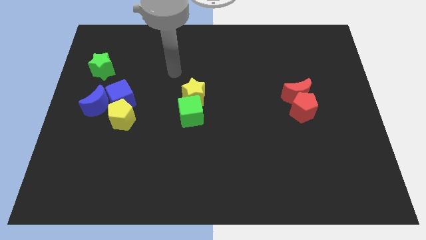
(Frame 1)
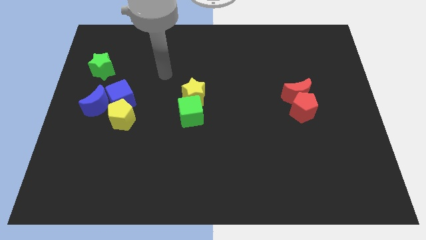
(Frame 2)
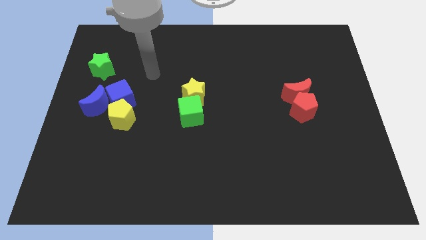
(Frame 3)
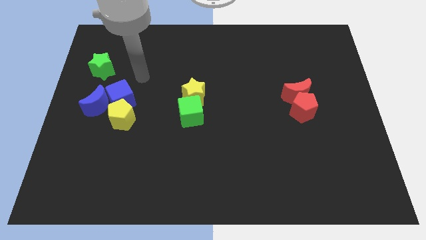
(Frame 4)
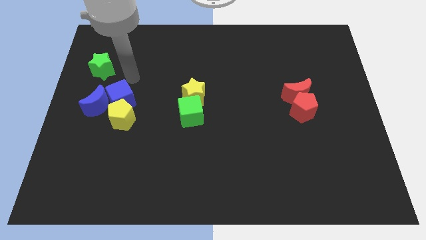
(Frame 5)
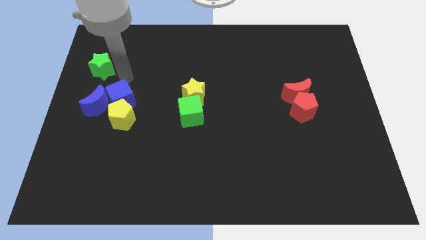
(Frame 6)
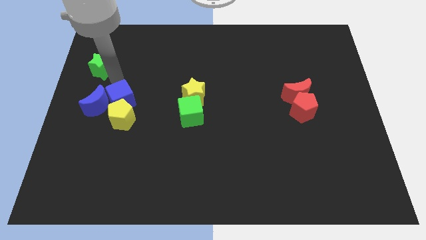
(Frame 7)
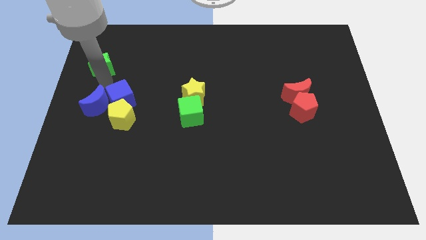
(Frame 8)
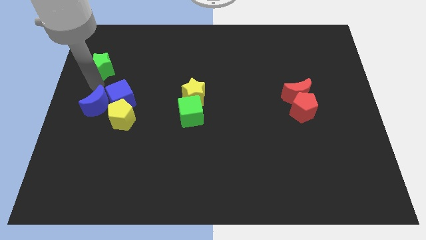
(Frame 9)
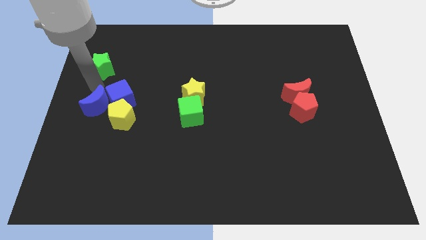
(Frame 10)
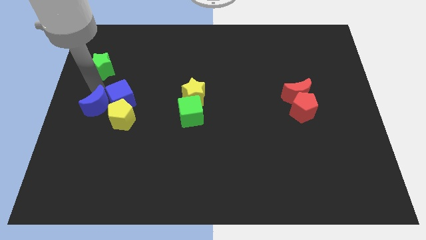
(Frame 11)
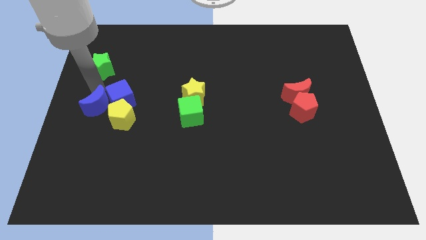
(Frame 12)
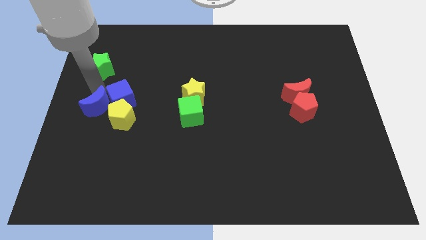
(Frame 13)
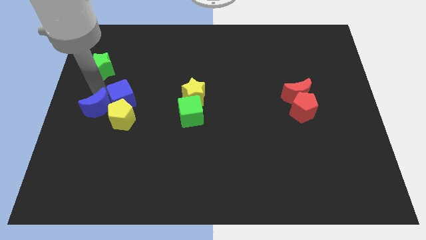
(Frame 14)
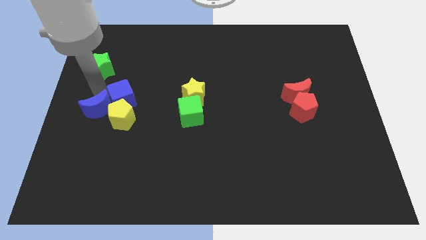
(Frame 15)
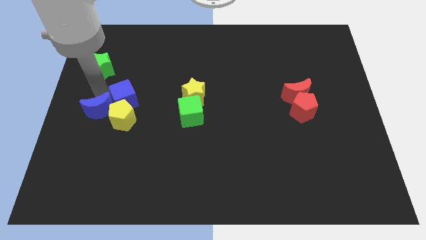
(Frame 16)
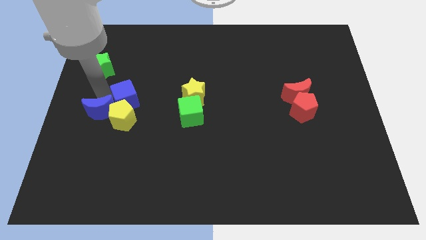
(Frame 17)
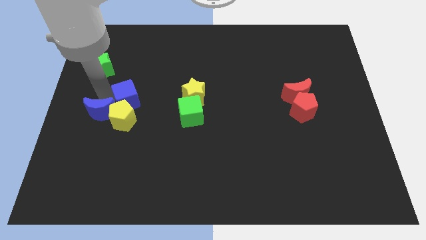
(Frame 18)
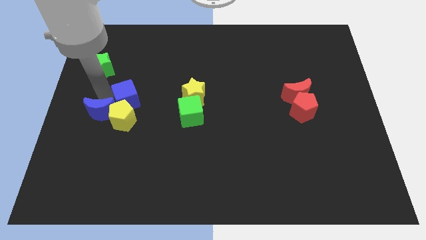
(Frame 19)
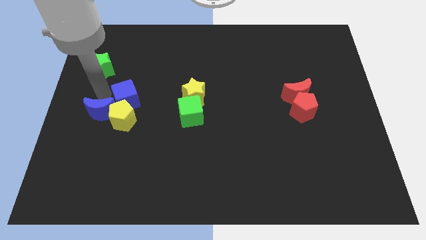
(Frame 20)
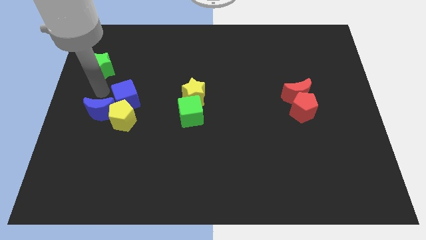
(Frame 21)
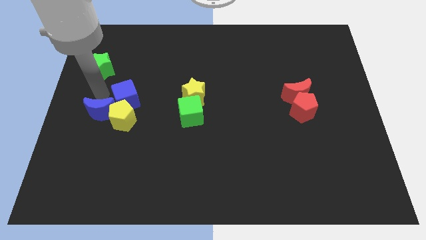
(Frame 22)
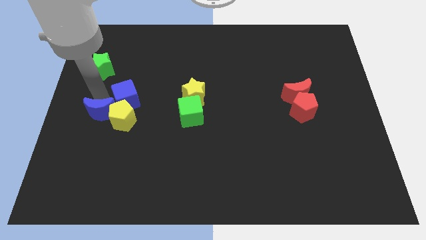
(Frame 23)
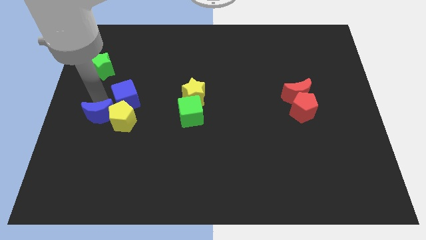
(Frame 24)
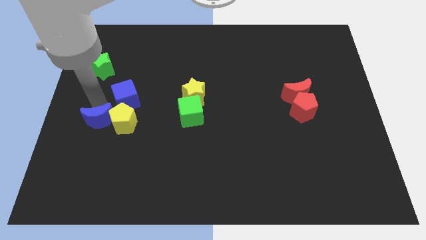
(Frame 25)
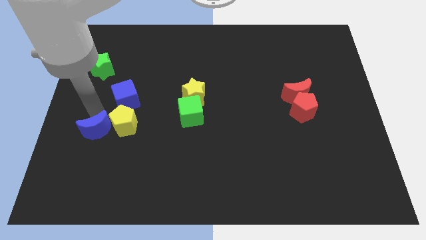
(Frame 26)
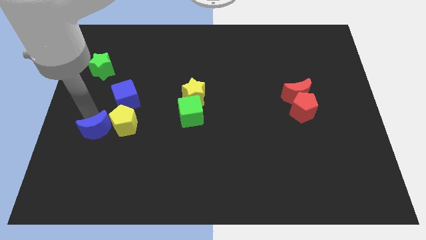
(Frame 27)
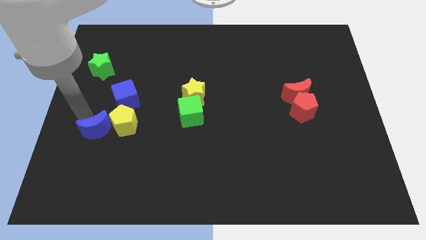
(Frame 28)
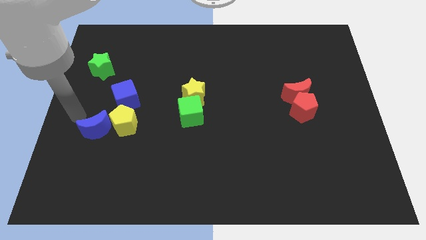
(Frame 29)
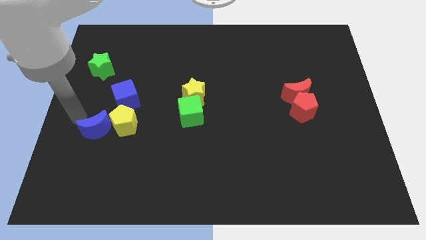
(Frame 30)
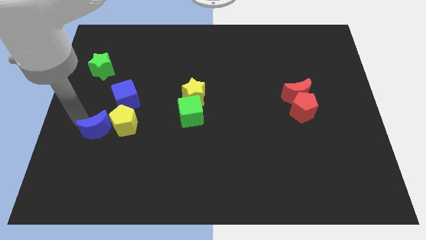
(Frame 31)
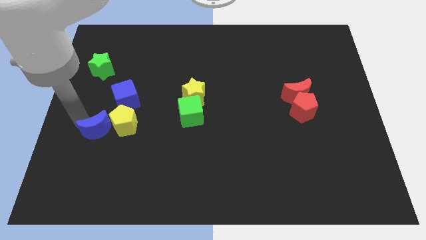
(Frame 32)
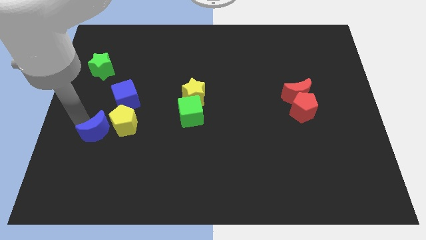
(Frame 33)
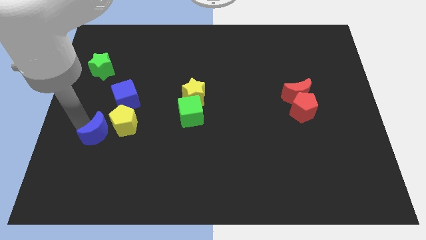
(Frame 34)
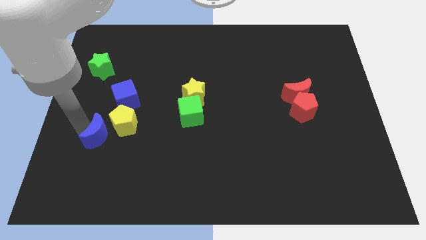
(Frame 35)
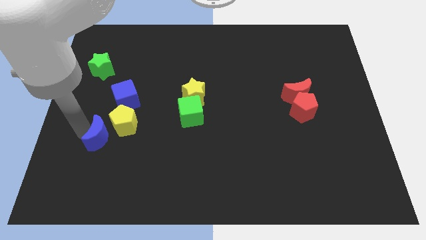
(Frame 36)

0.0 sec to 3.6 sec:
move the blue moon downwards and then to the right a little

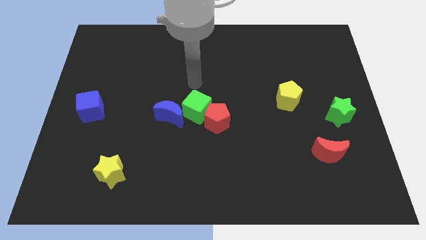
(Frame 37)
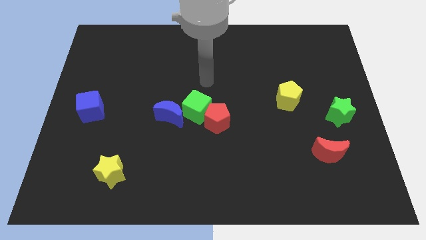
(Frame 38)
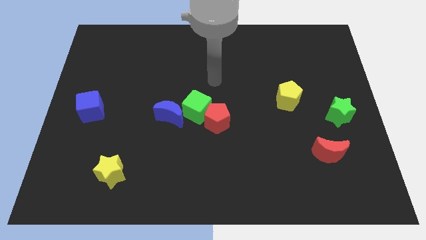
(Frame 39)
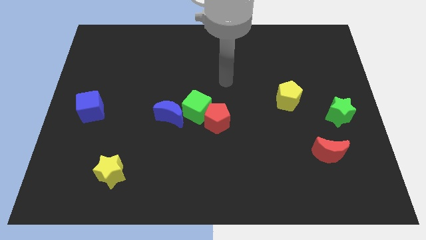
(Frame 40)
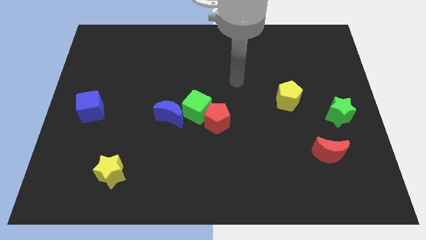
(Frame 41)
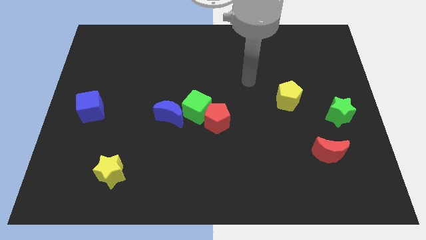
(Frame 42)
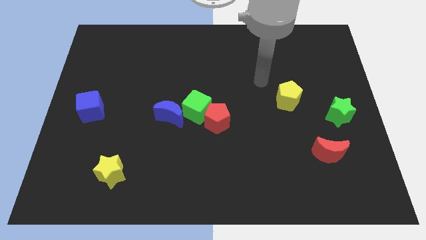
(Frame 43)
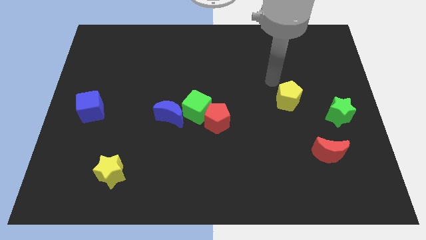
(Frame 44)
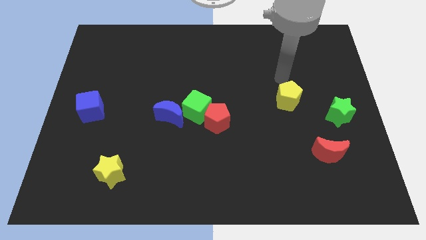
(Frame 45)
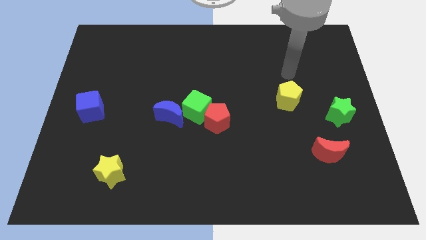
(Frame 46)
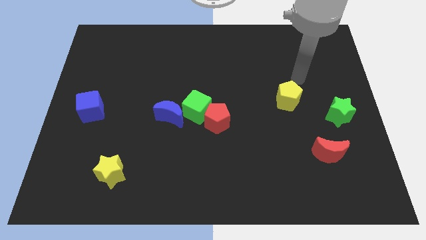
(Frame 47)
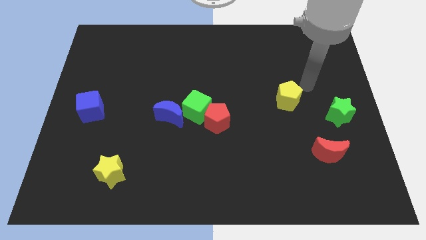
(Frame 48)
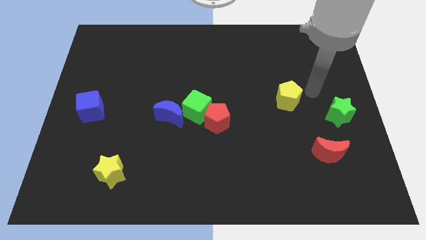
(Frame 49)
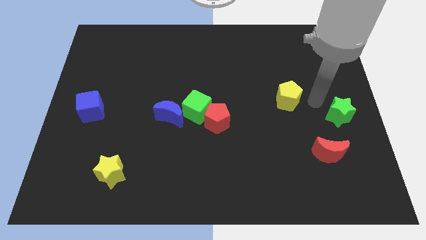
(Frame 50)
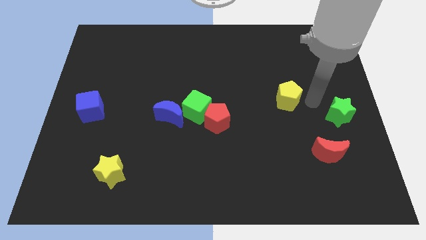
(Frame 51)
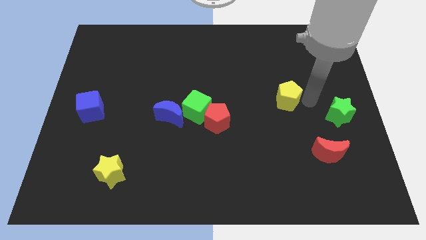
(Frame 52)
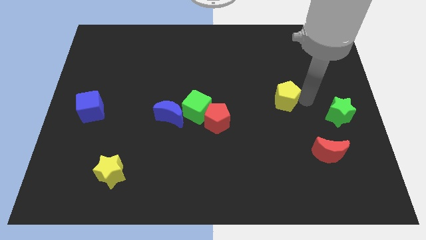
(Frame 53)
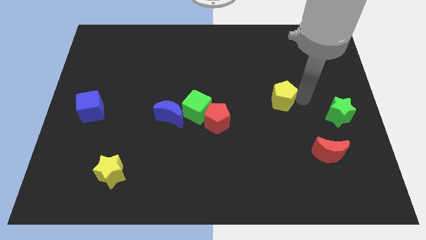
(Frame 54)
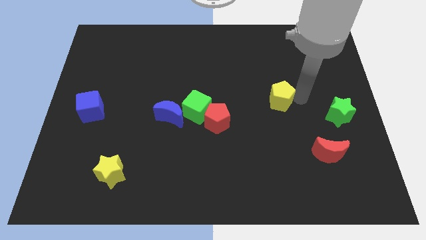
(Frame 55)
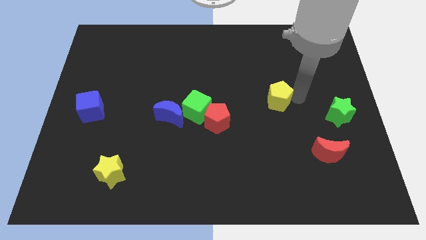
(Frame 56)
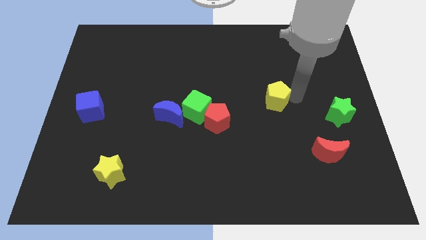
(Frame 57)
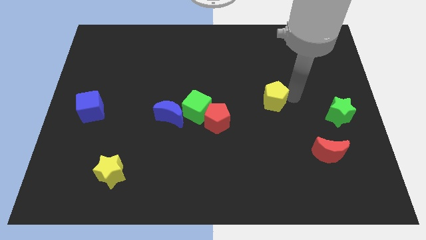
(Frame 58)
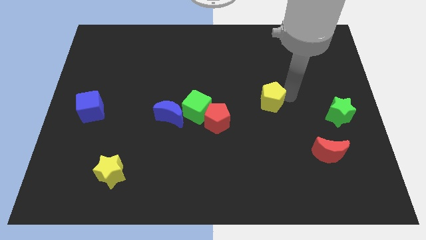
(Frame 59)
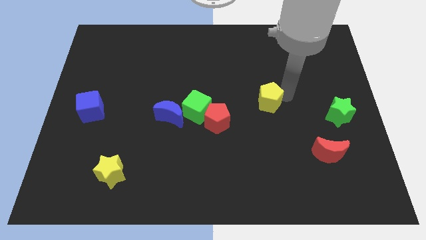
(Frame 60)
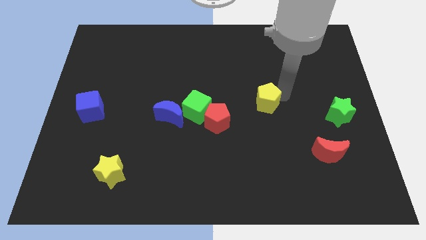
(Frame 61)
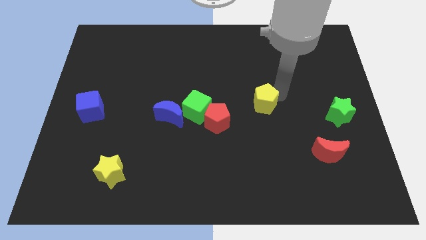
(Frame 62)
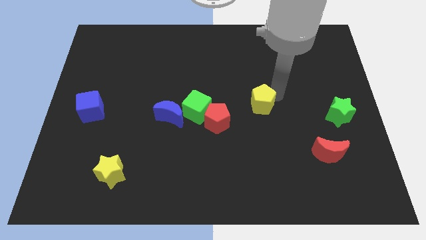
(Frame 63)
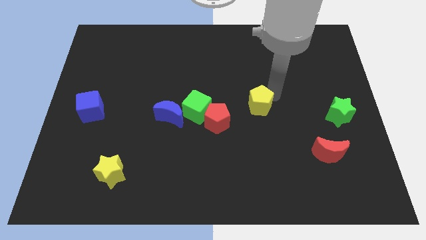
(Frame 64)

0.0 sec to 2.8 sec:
move the yellow pentagon to the left slightly

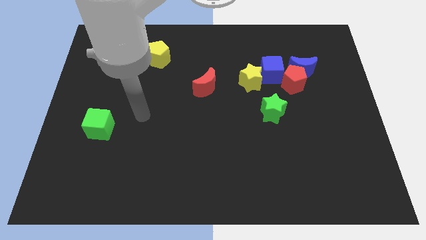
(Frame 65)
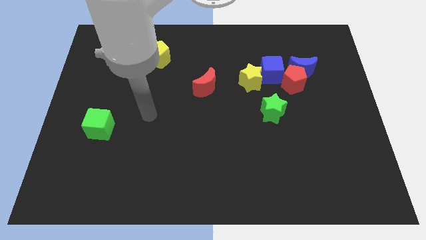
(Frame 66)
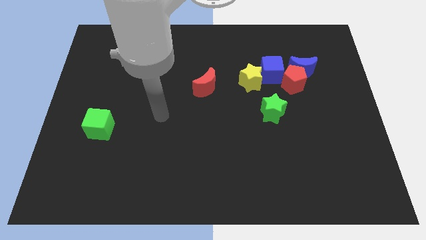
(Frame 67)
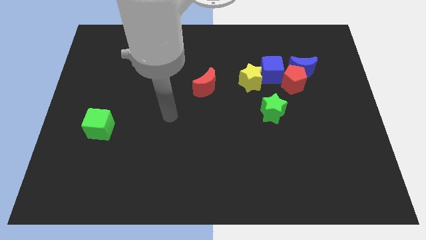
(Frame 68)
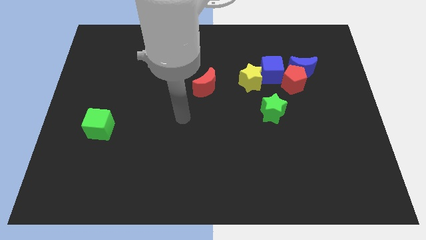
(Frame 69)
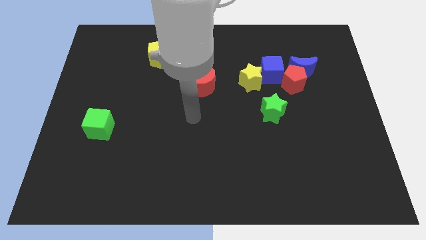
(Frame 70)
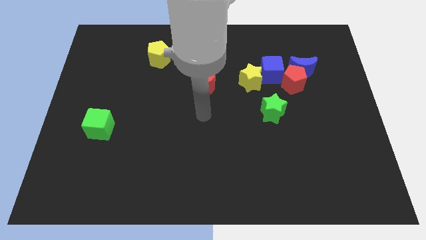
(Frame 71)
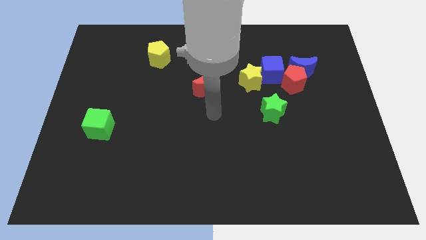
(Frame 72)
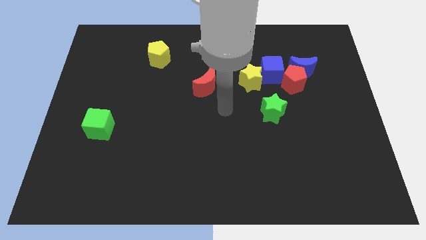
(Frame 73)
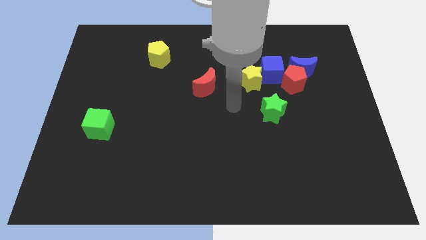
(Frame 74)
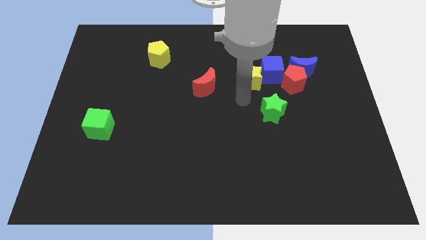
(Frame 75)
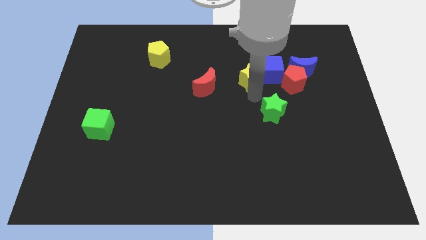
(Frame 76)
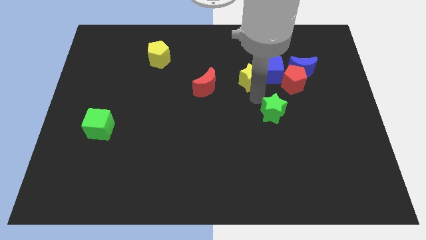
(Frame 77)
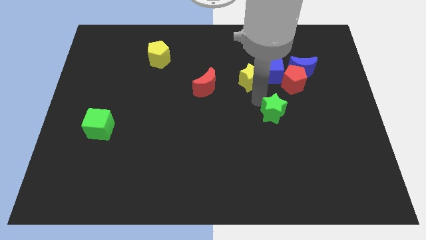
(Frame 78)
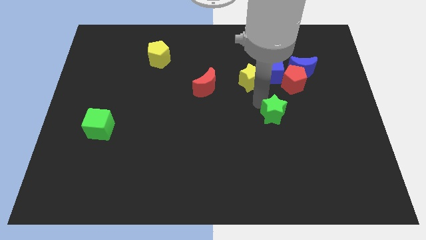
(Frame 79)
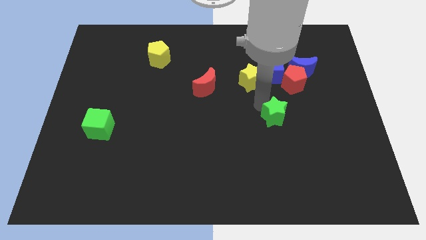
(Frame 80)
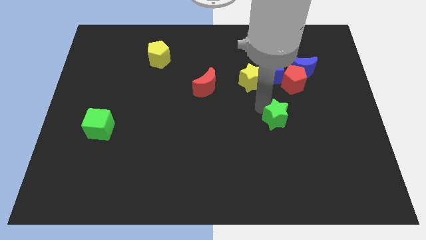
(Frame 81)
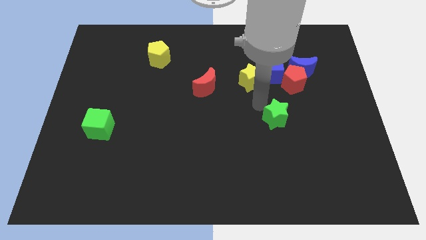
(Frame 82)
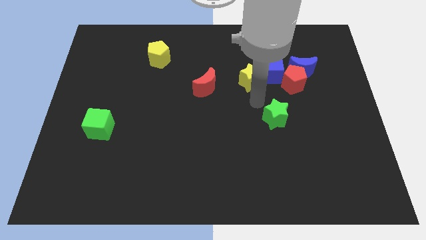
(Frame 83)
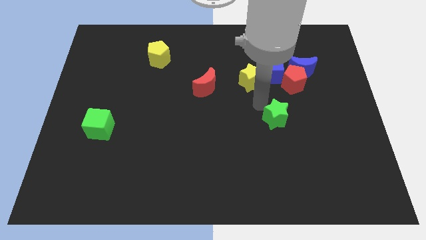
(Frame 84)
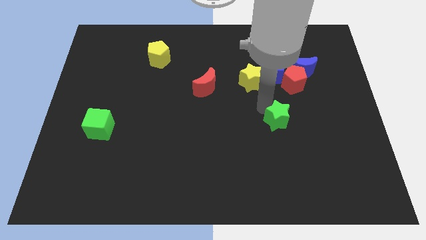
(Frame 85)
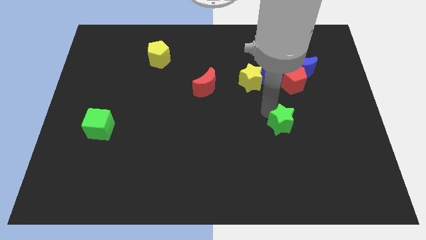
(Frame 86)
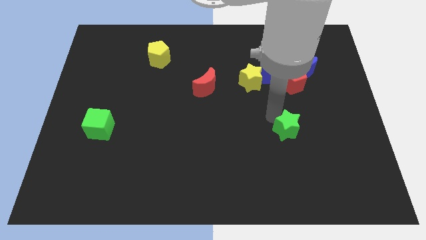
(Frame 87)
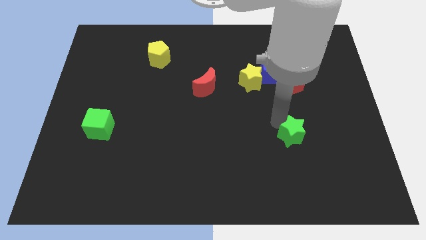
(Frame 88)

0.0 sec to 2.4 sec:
move the green star slightly downwards and then to the right
